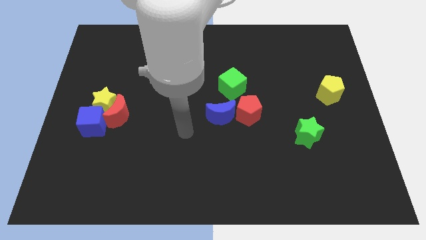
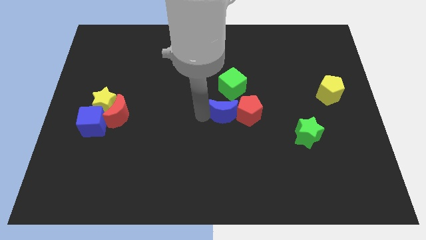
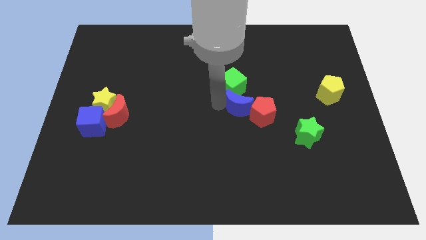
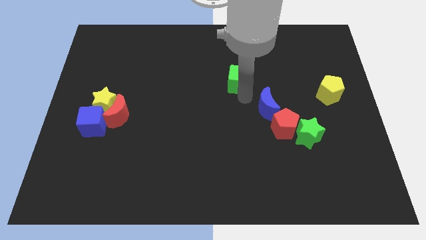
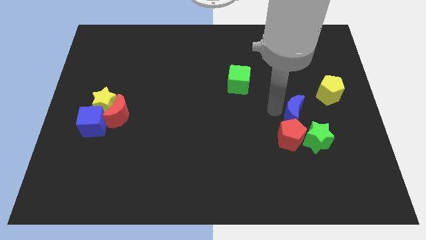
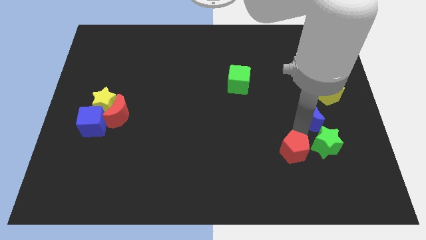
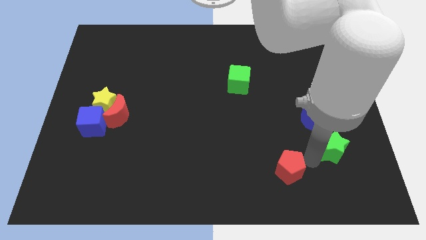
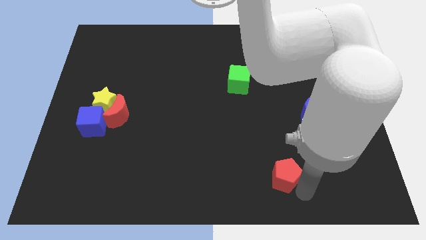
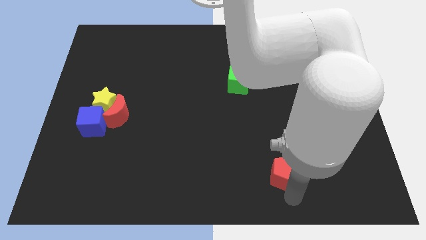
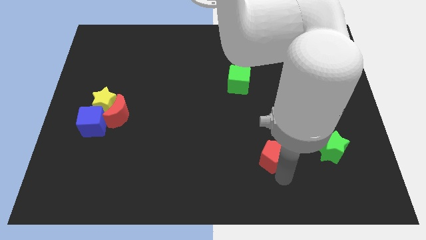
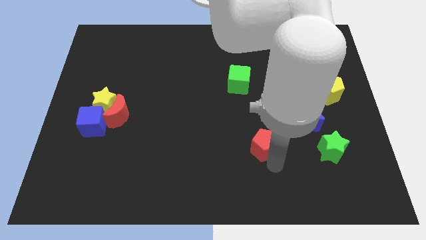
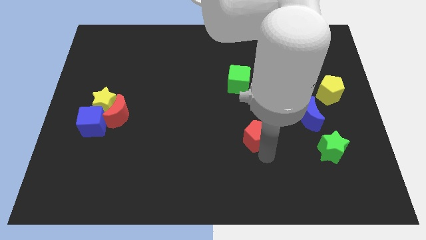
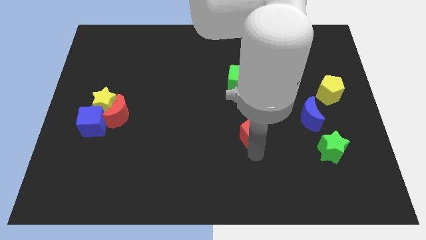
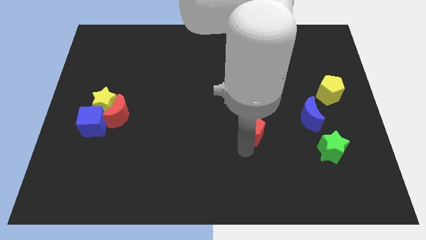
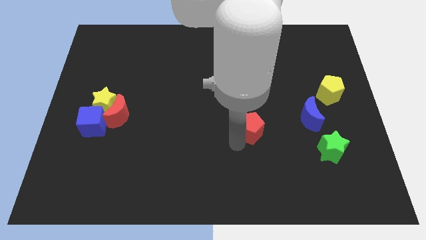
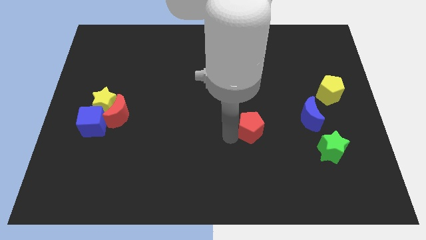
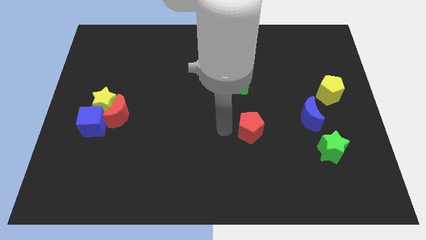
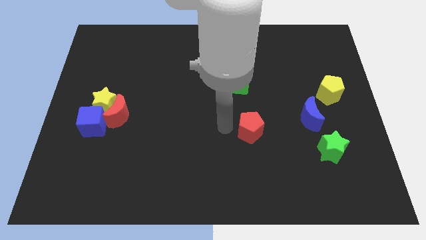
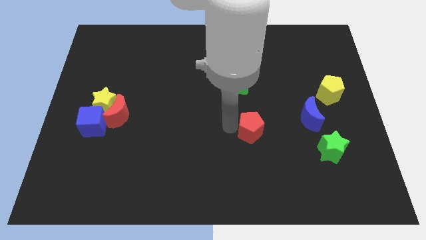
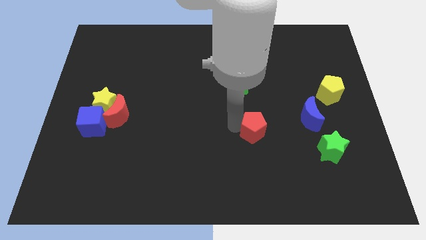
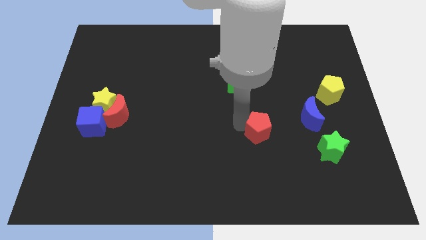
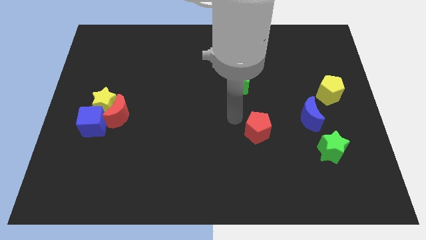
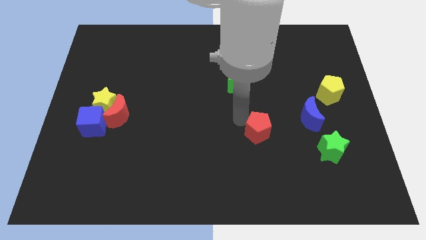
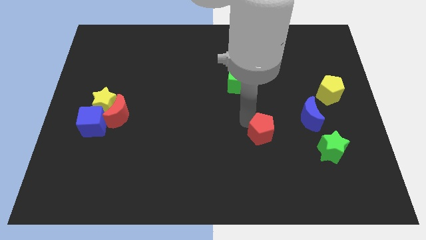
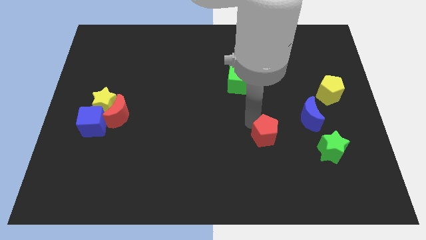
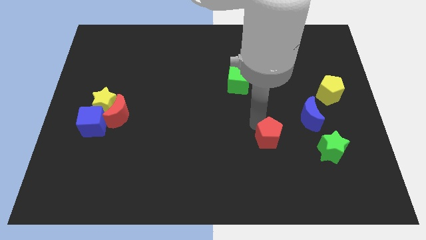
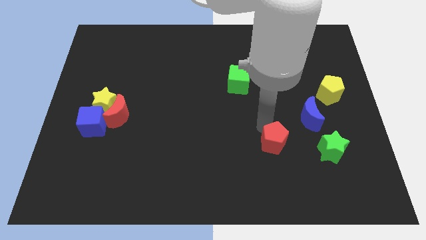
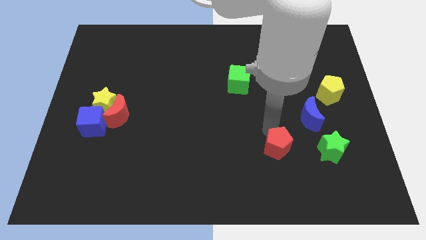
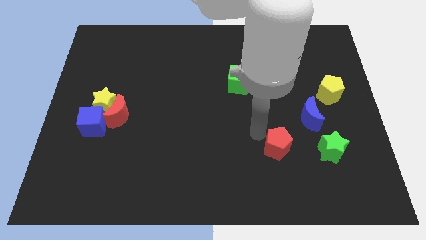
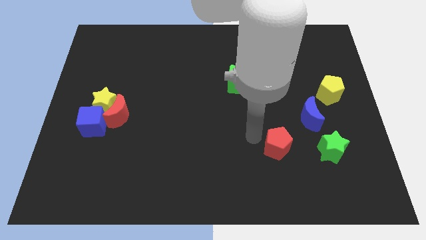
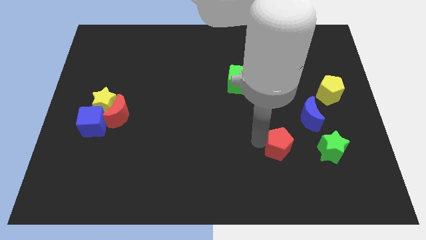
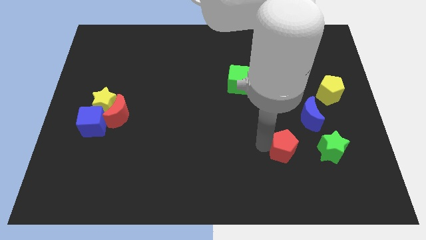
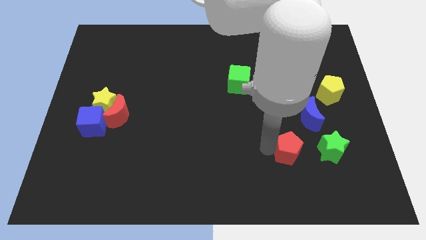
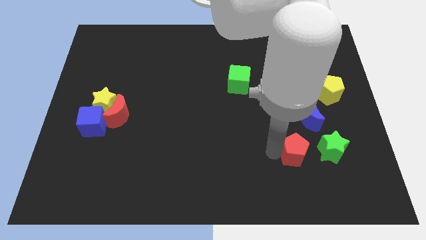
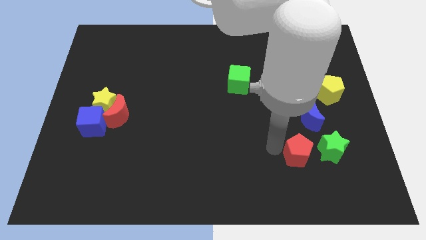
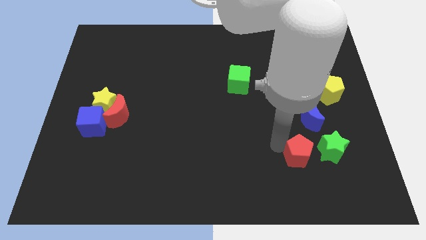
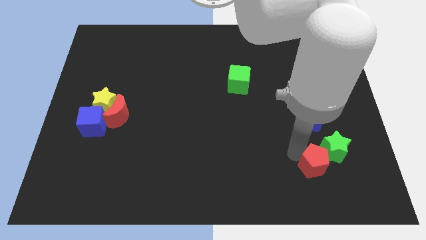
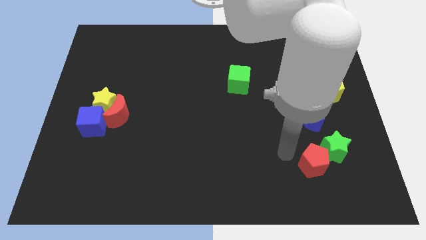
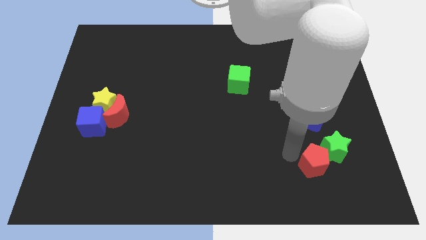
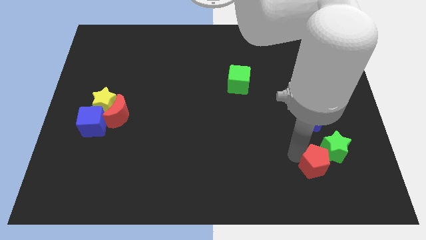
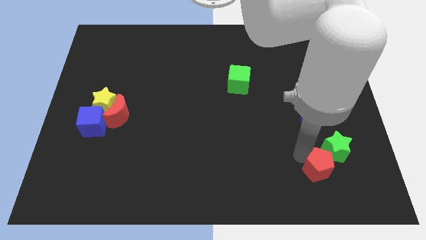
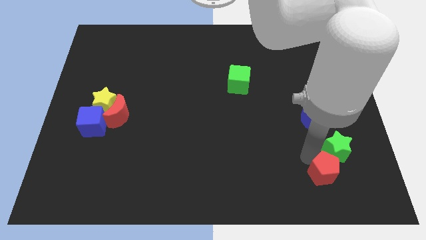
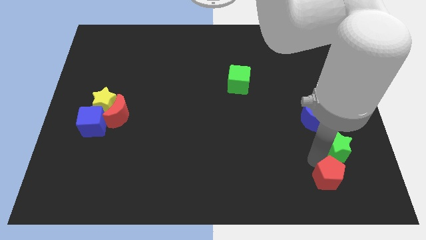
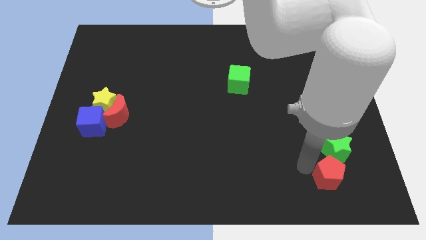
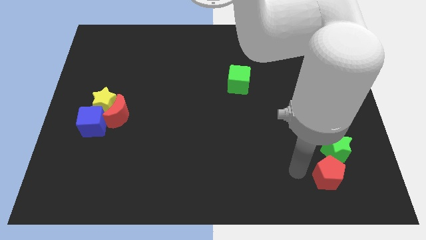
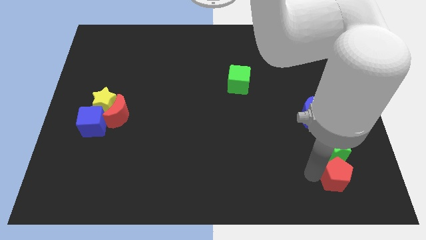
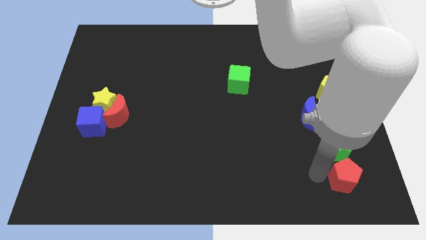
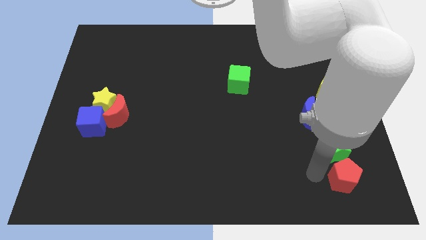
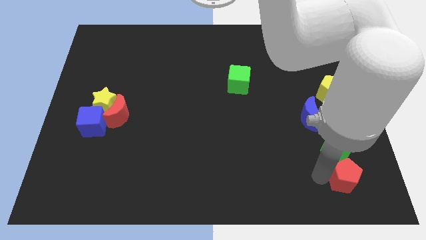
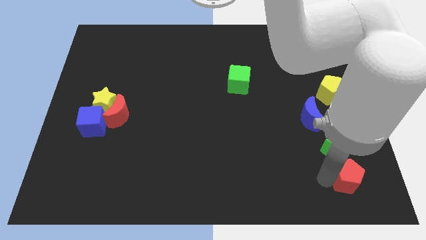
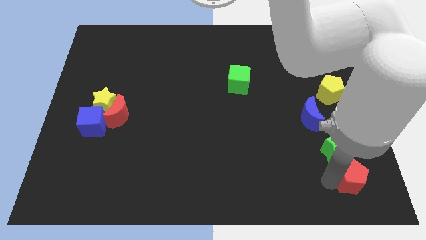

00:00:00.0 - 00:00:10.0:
put the red pentagon to the bottom right corner

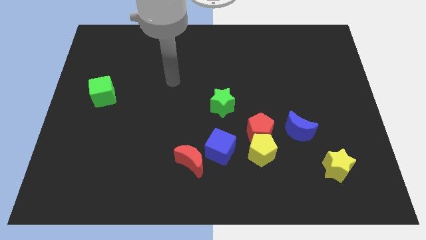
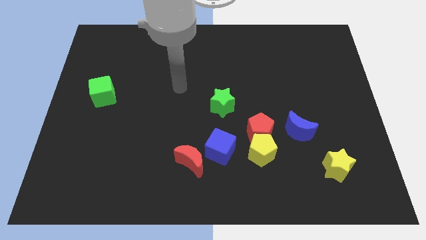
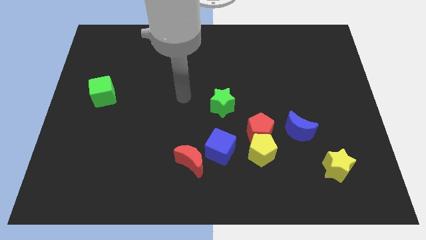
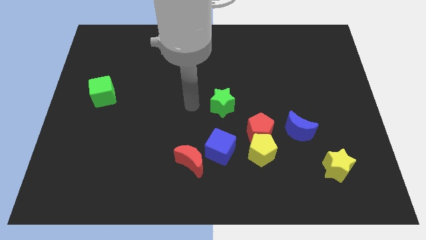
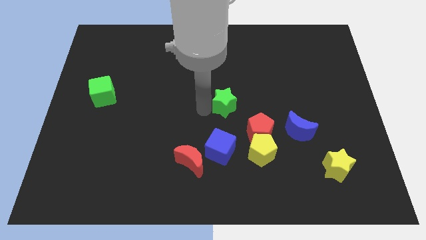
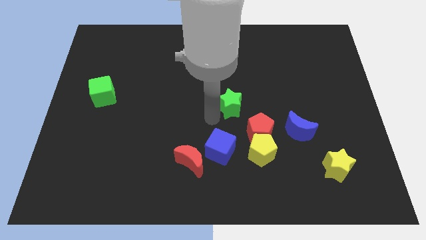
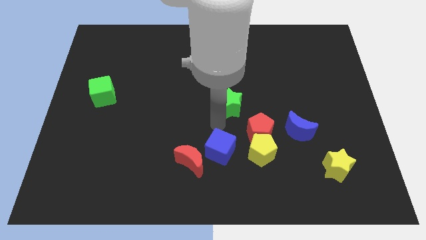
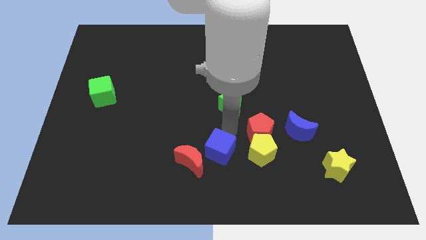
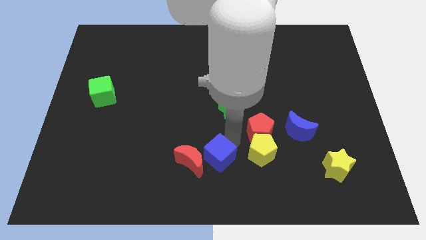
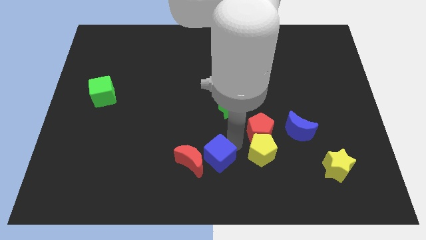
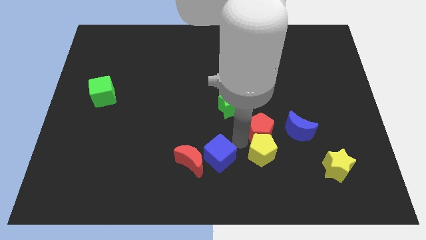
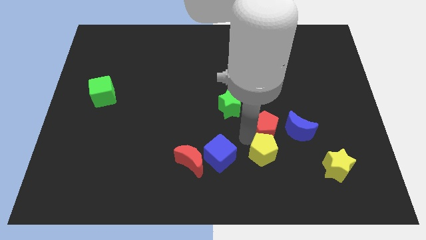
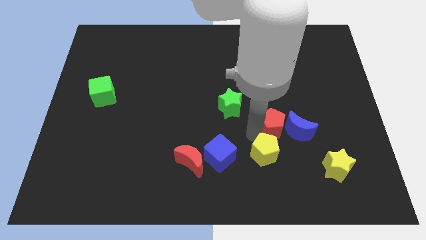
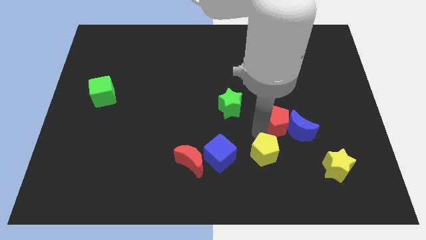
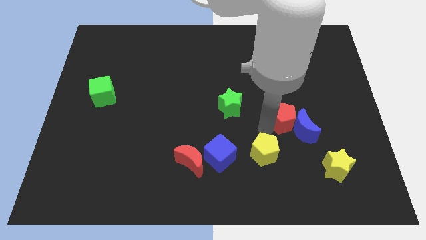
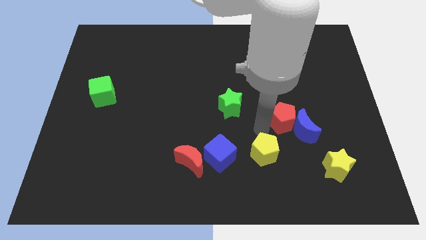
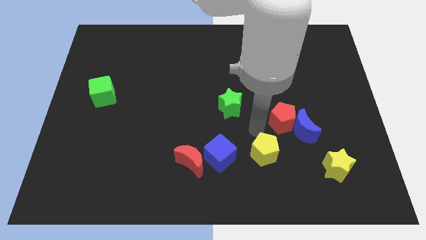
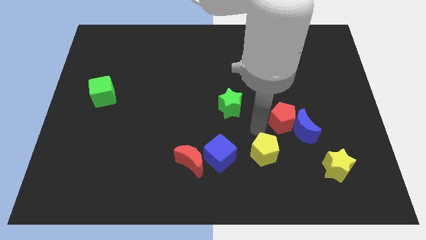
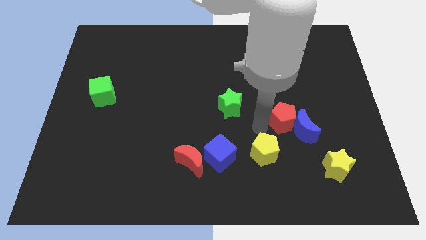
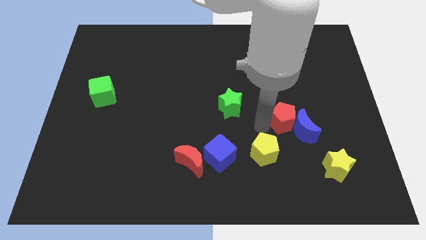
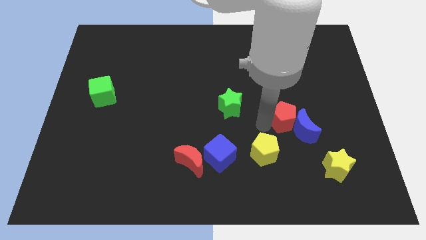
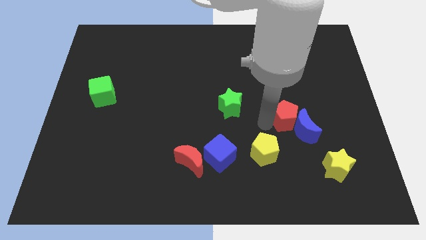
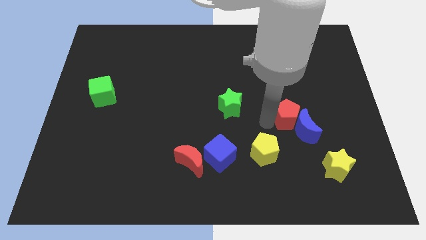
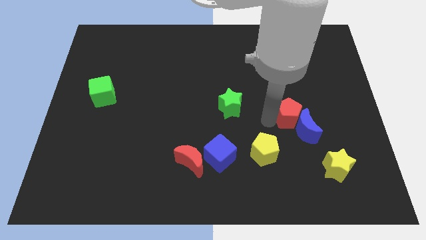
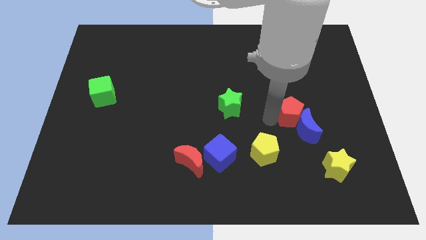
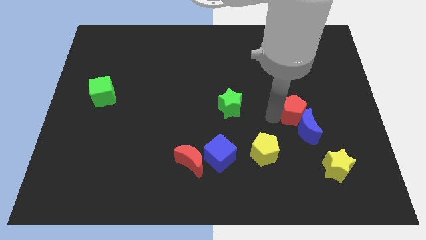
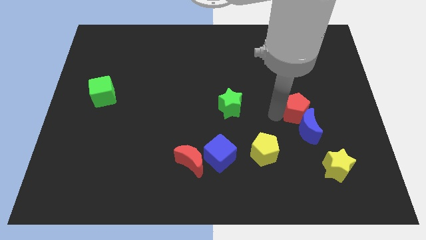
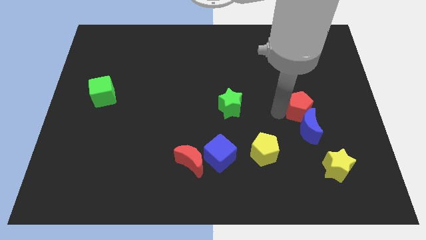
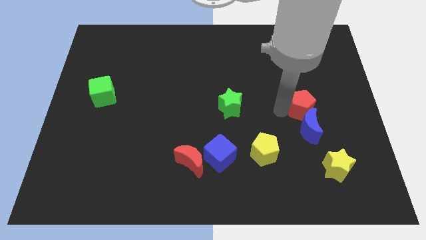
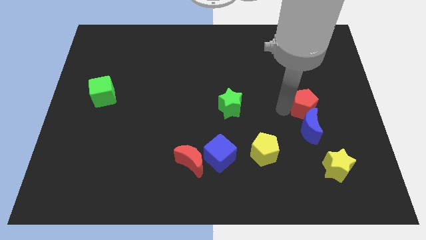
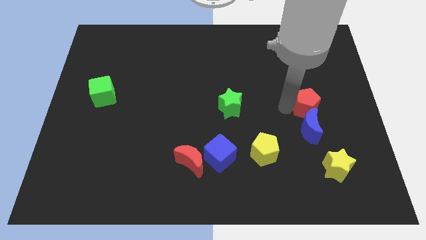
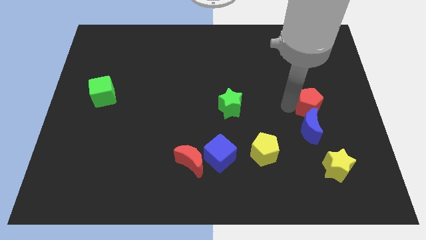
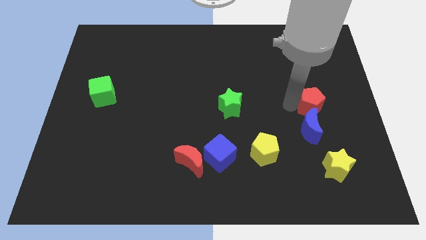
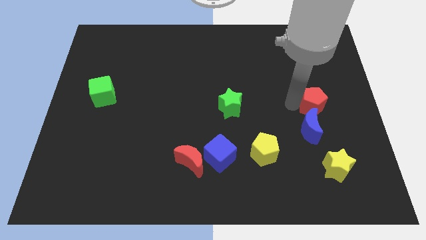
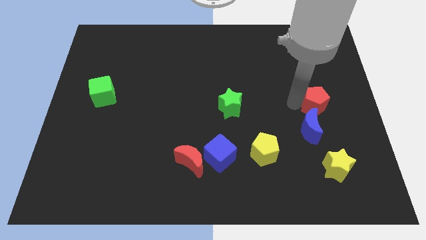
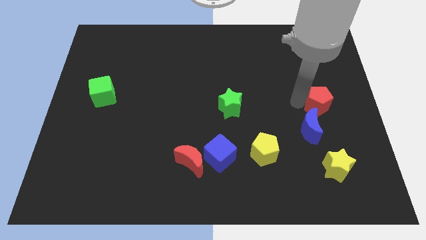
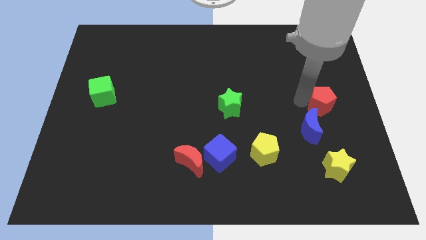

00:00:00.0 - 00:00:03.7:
put the red pentagon to the right side of the board
